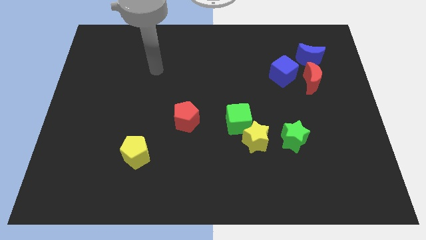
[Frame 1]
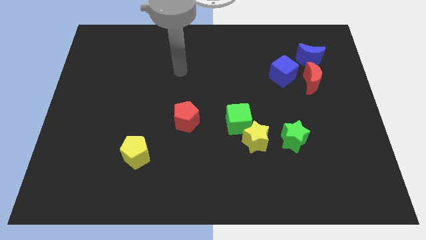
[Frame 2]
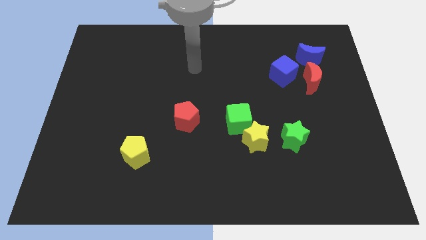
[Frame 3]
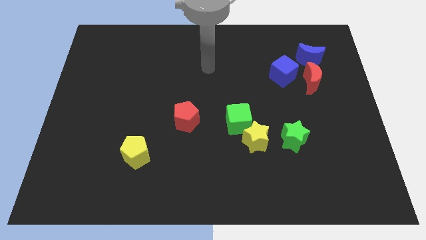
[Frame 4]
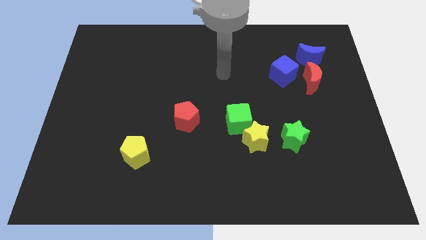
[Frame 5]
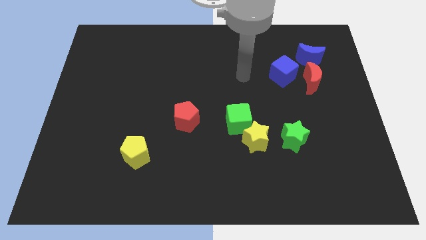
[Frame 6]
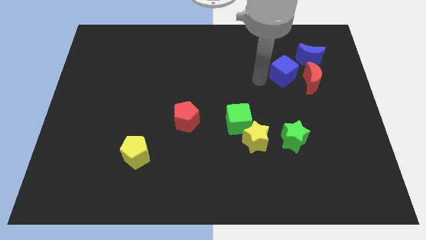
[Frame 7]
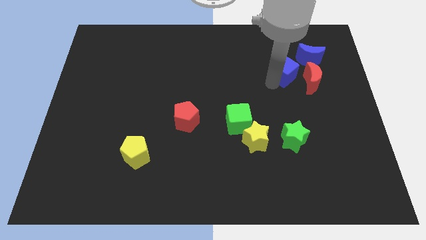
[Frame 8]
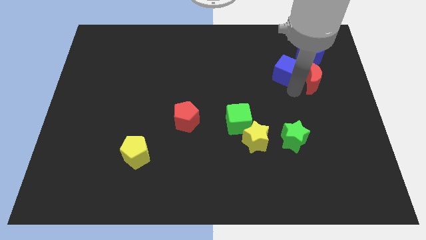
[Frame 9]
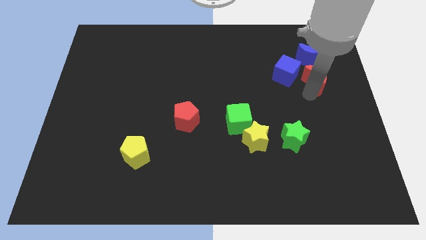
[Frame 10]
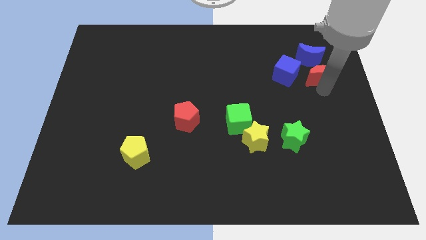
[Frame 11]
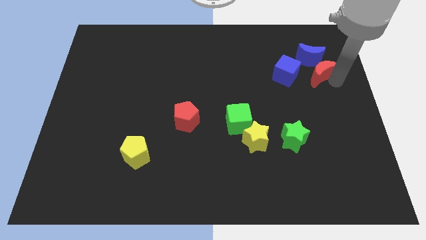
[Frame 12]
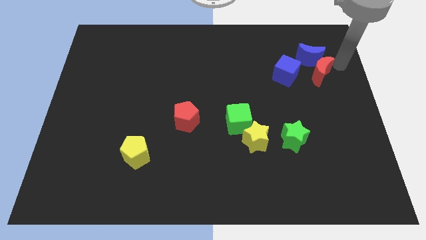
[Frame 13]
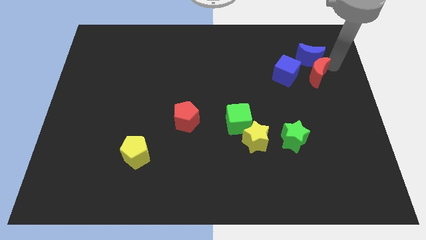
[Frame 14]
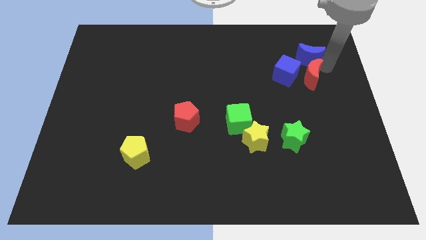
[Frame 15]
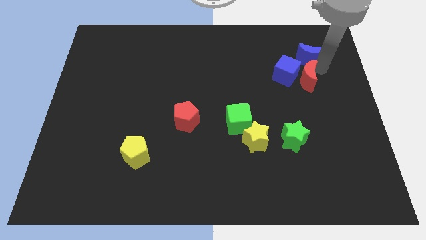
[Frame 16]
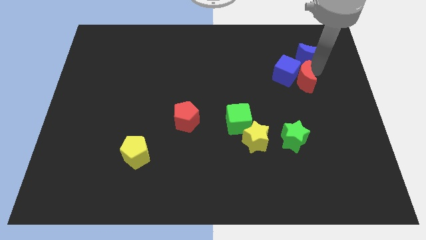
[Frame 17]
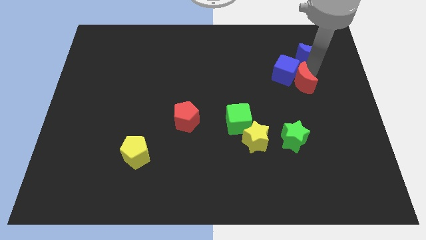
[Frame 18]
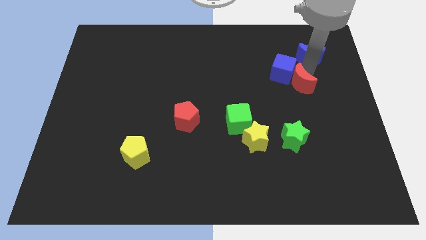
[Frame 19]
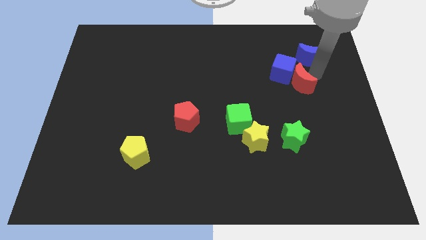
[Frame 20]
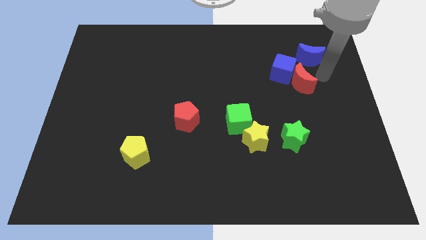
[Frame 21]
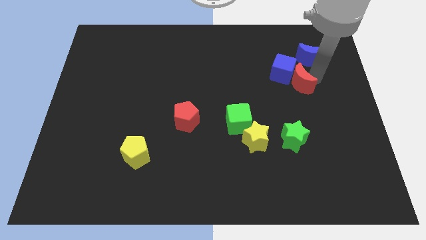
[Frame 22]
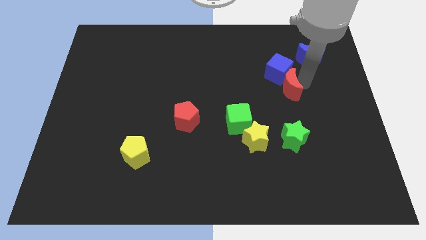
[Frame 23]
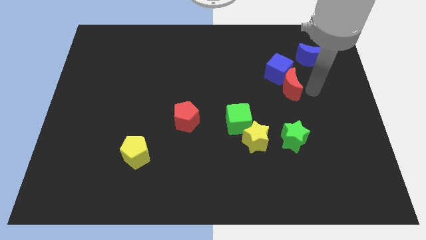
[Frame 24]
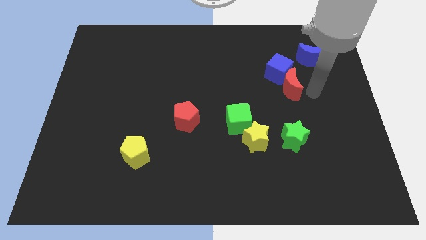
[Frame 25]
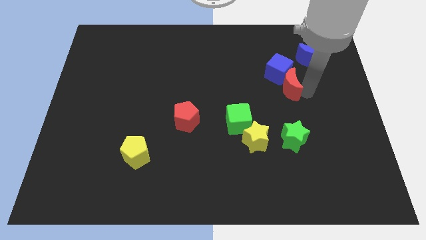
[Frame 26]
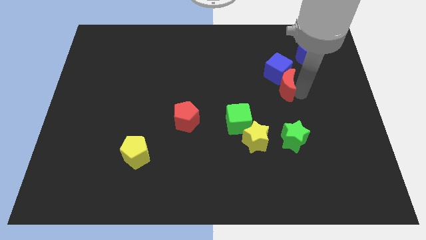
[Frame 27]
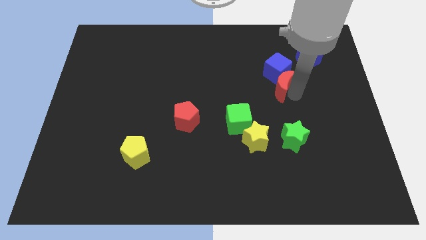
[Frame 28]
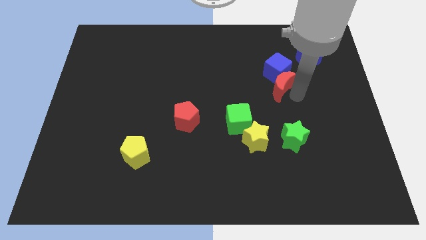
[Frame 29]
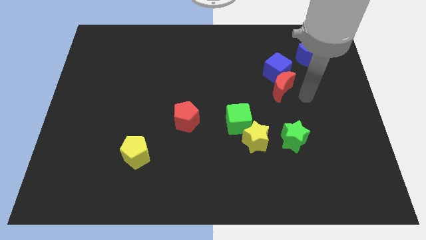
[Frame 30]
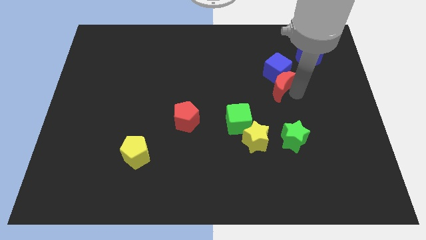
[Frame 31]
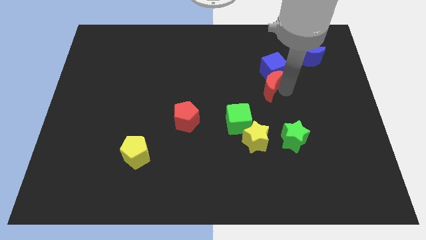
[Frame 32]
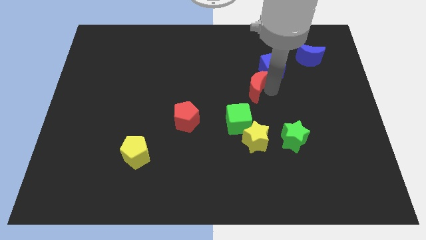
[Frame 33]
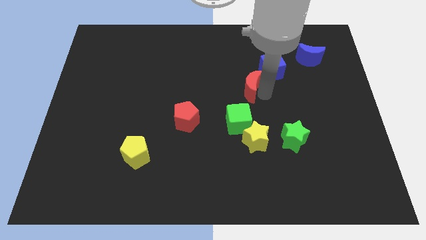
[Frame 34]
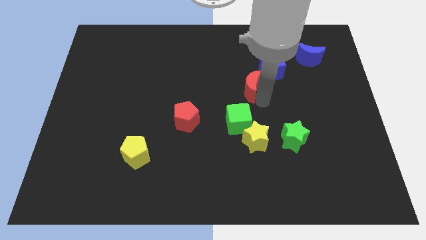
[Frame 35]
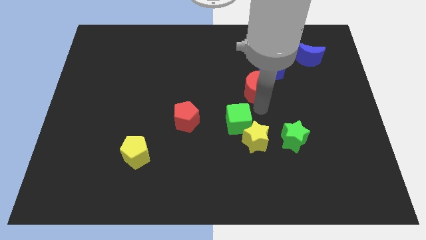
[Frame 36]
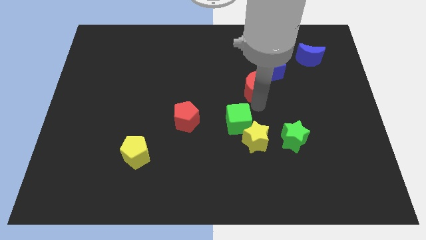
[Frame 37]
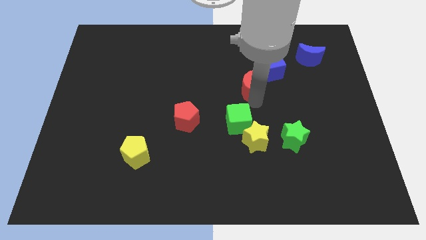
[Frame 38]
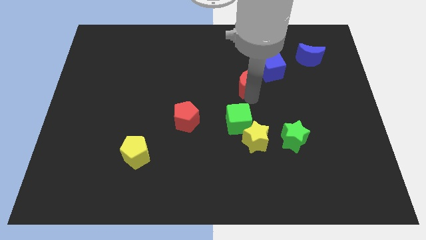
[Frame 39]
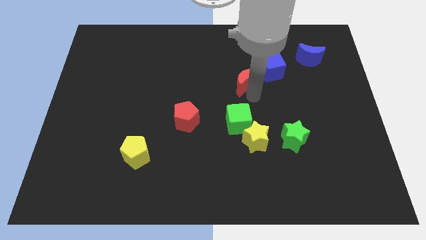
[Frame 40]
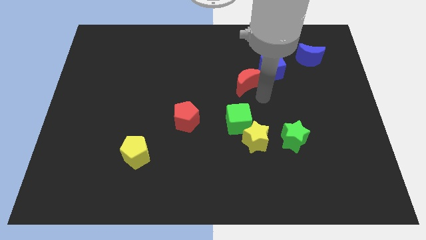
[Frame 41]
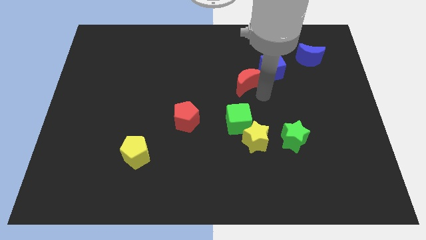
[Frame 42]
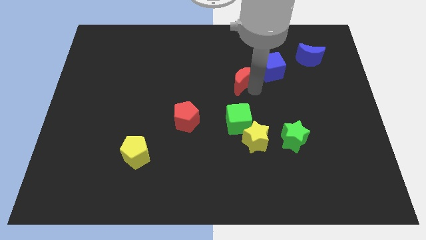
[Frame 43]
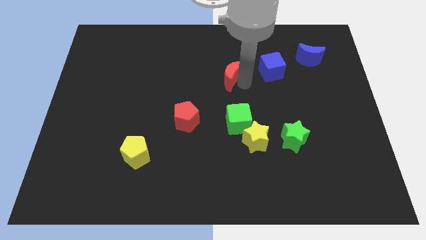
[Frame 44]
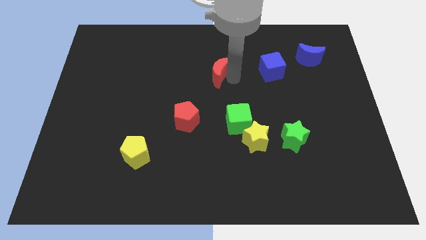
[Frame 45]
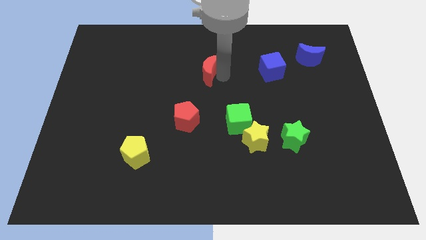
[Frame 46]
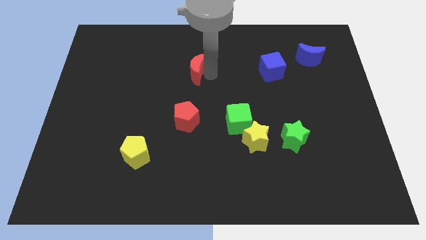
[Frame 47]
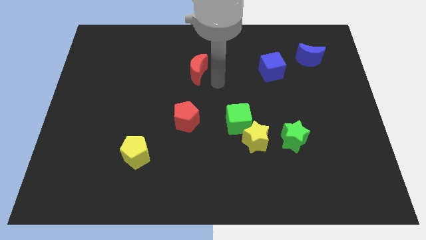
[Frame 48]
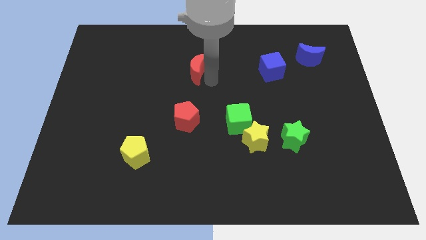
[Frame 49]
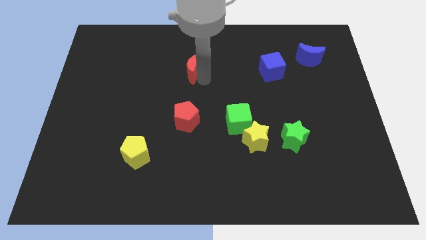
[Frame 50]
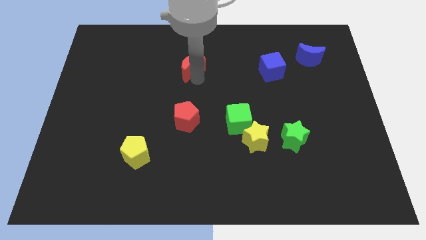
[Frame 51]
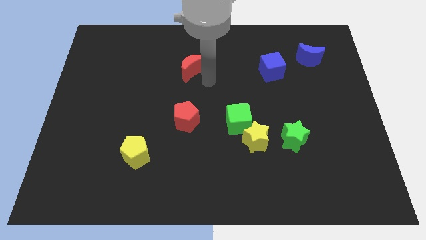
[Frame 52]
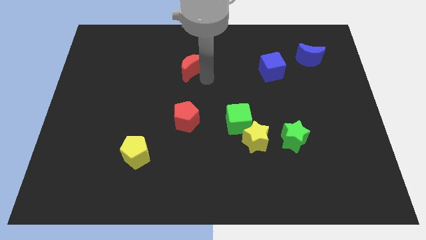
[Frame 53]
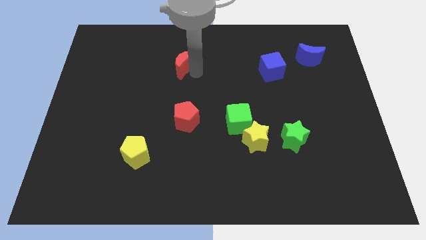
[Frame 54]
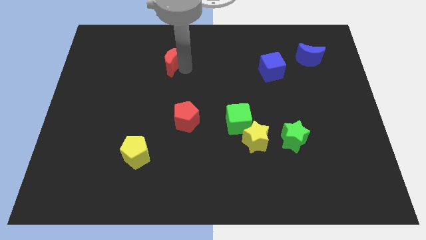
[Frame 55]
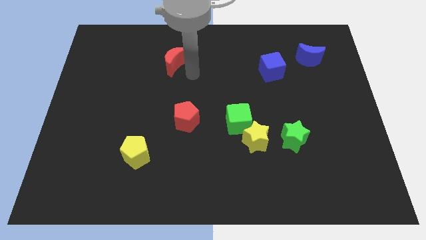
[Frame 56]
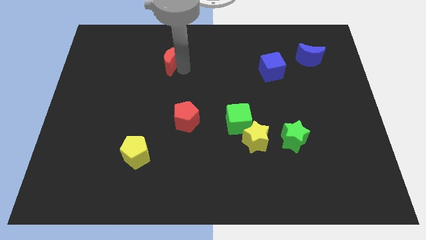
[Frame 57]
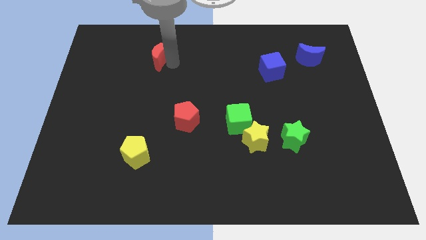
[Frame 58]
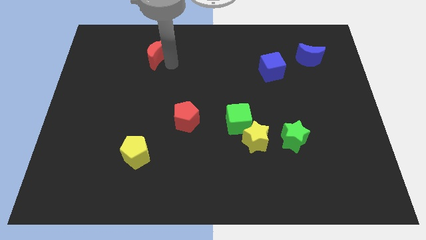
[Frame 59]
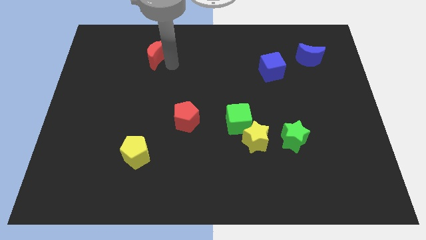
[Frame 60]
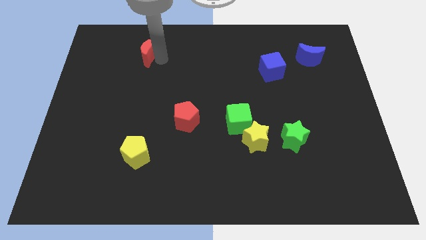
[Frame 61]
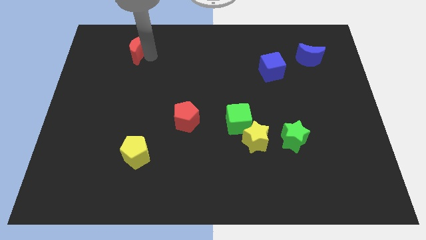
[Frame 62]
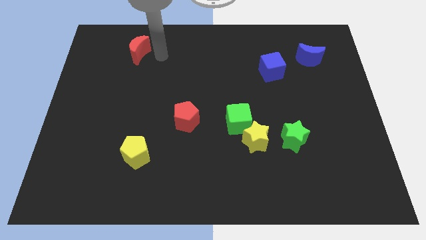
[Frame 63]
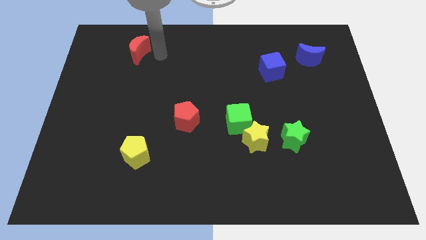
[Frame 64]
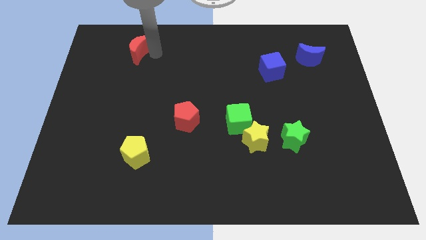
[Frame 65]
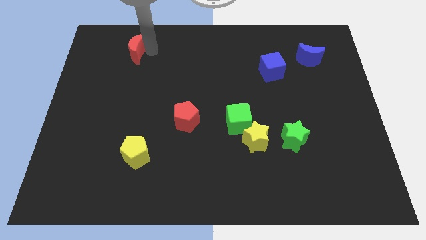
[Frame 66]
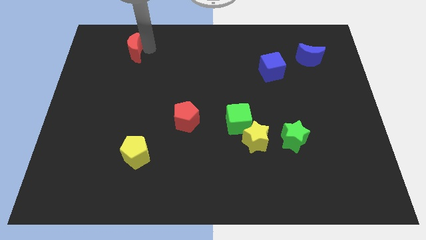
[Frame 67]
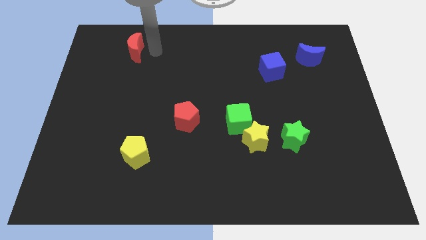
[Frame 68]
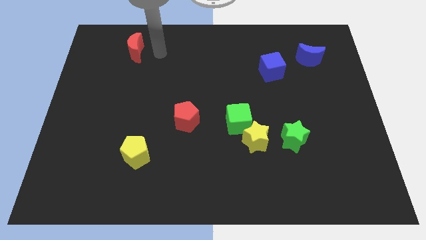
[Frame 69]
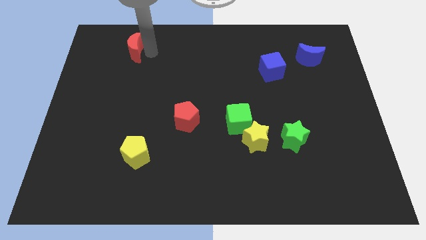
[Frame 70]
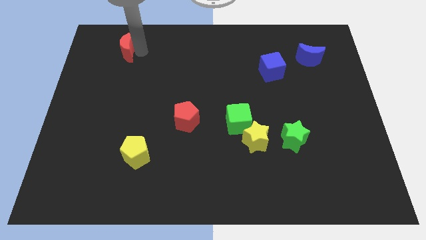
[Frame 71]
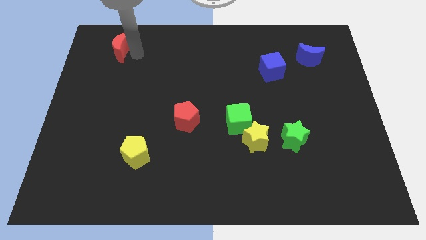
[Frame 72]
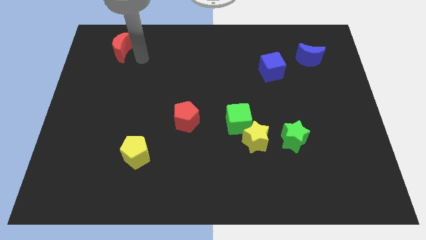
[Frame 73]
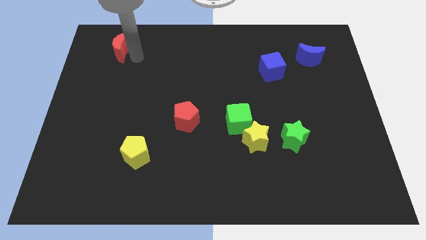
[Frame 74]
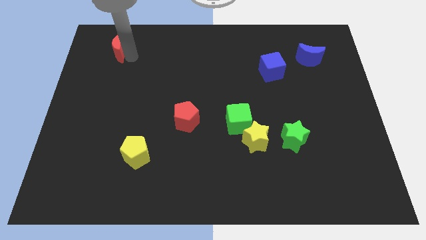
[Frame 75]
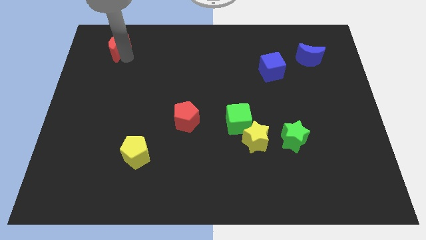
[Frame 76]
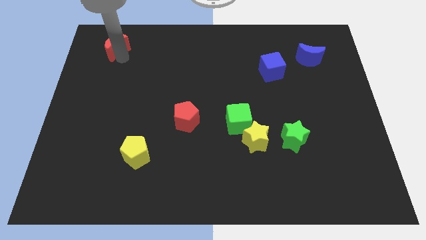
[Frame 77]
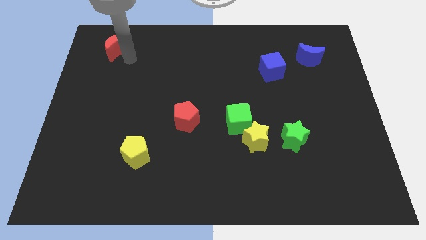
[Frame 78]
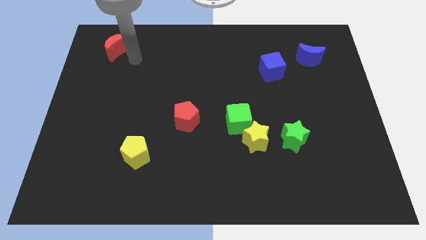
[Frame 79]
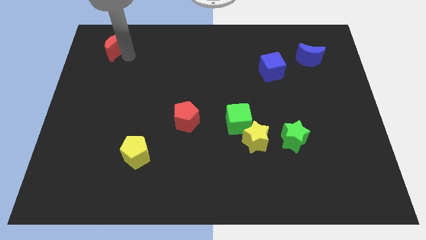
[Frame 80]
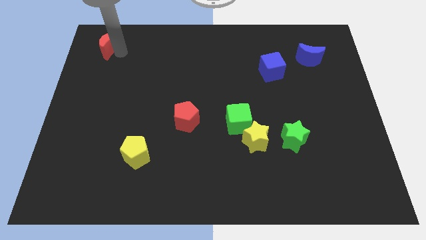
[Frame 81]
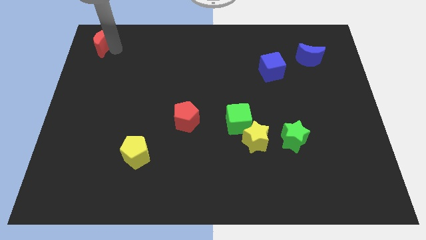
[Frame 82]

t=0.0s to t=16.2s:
push the red moon to the top left
